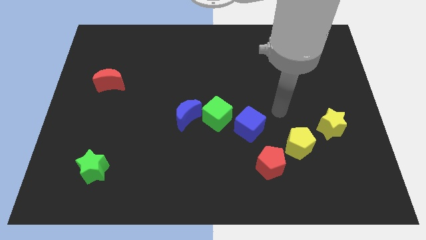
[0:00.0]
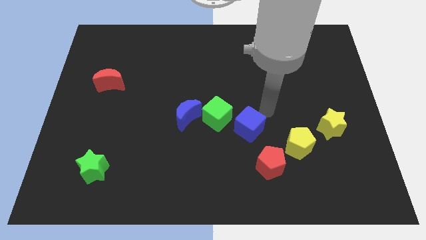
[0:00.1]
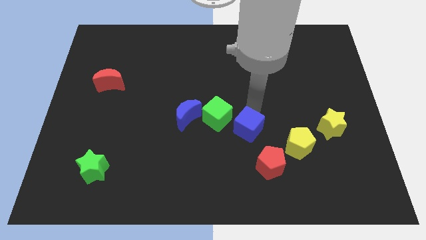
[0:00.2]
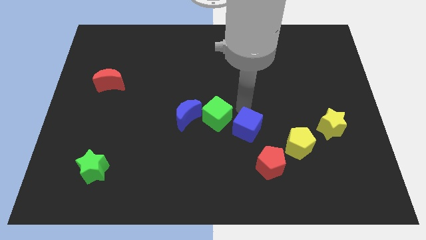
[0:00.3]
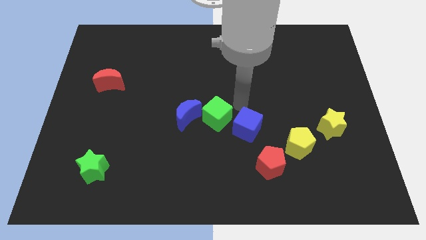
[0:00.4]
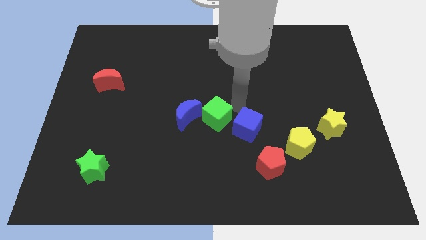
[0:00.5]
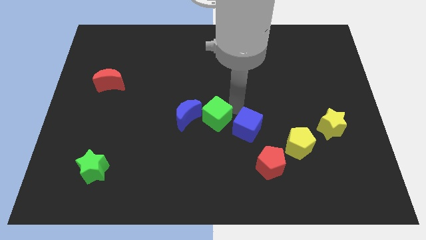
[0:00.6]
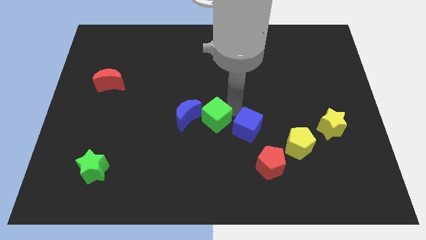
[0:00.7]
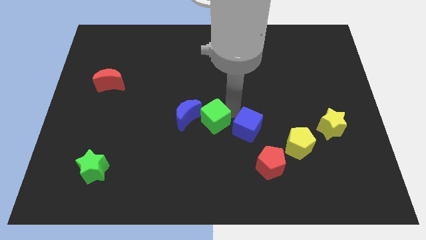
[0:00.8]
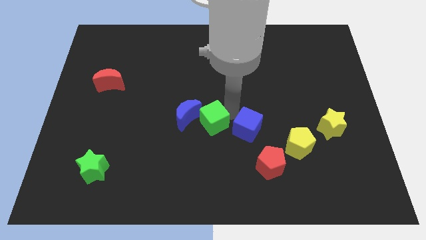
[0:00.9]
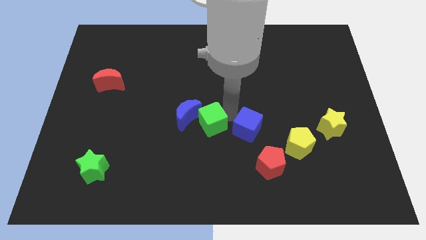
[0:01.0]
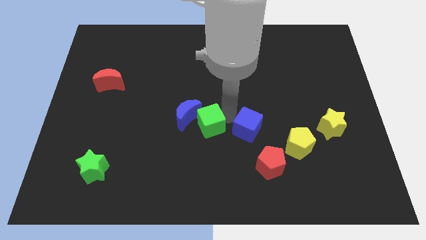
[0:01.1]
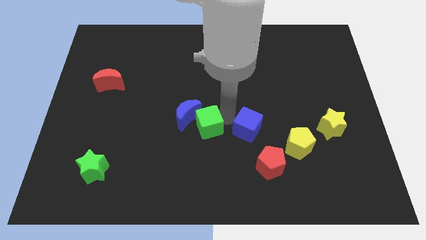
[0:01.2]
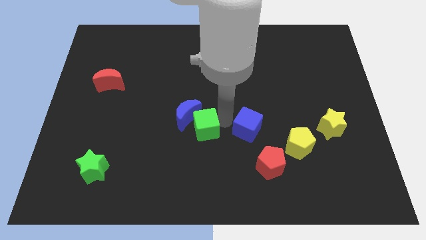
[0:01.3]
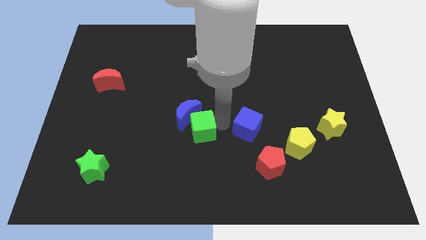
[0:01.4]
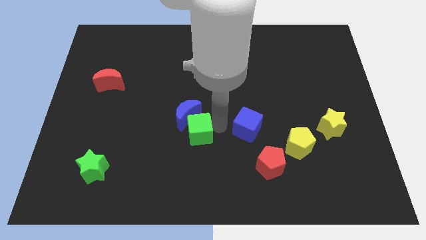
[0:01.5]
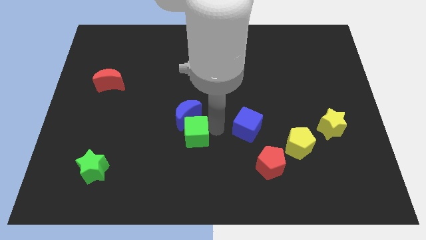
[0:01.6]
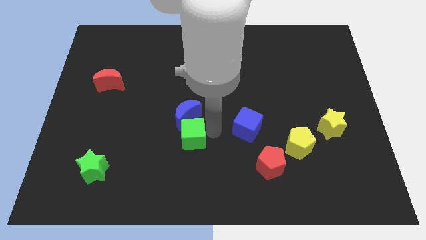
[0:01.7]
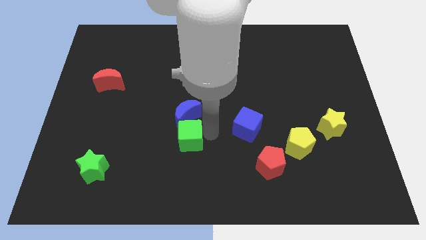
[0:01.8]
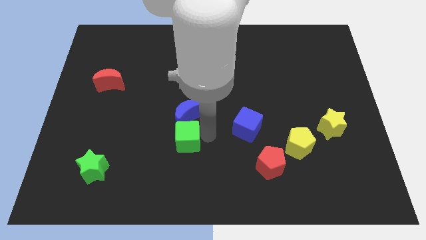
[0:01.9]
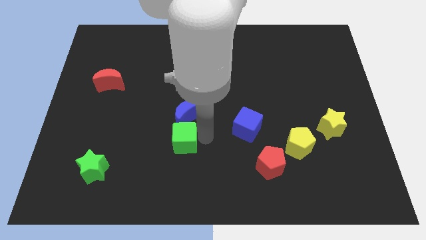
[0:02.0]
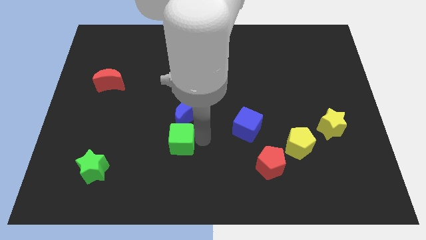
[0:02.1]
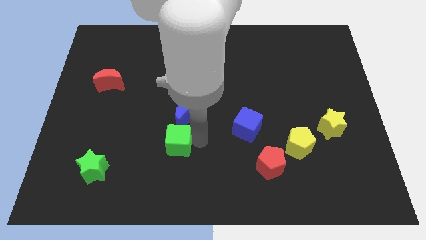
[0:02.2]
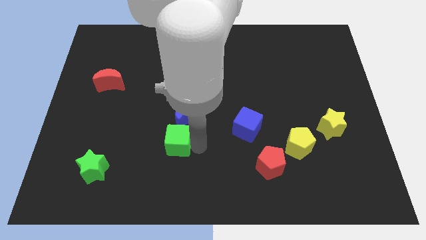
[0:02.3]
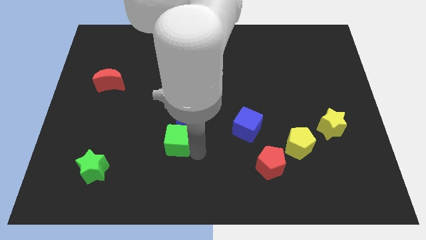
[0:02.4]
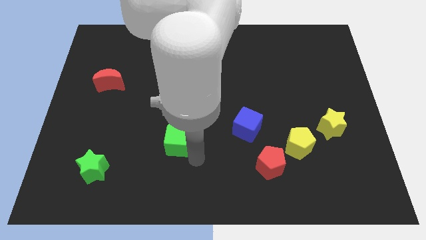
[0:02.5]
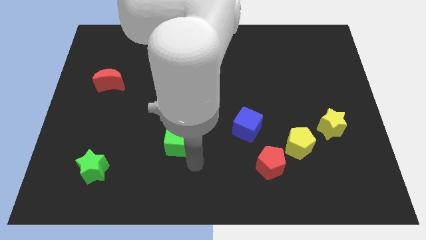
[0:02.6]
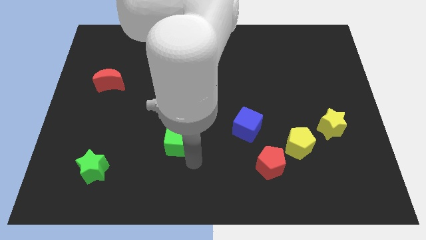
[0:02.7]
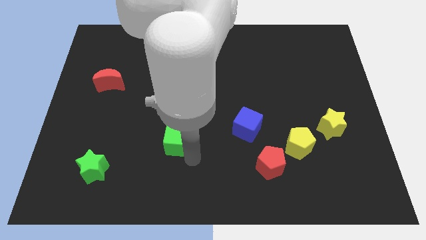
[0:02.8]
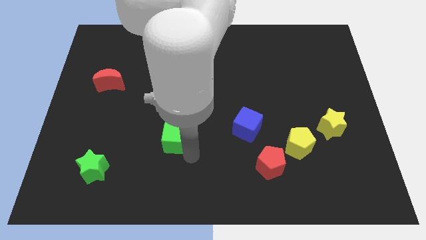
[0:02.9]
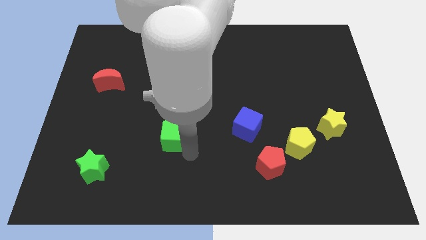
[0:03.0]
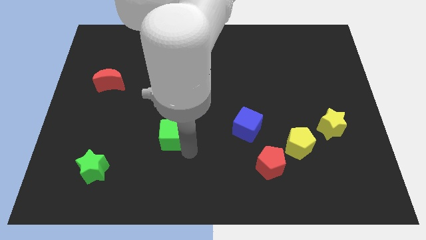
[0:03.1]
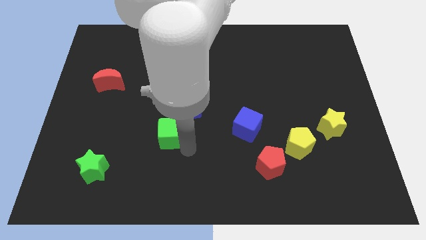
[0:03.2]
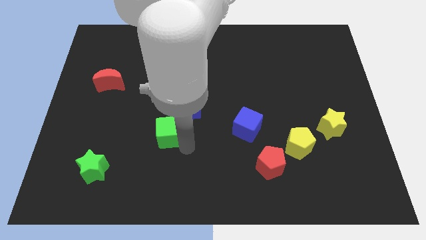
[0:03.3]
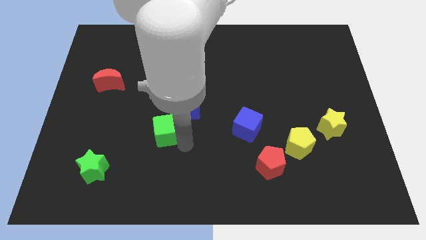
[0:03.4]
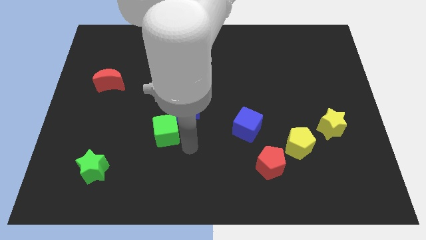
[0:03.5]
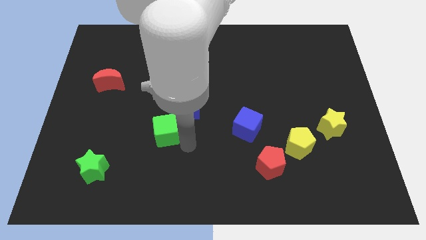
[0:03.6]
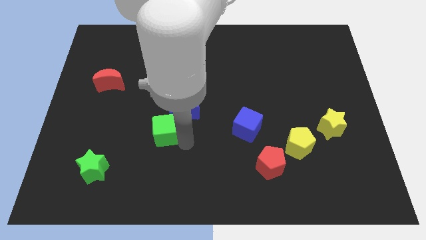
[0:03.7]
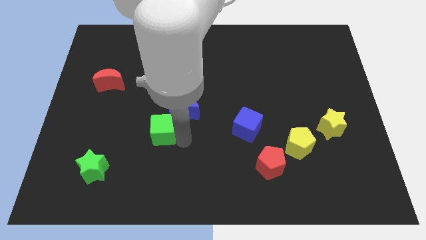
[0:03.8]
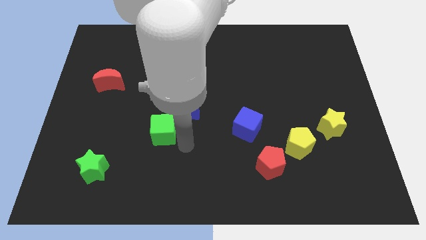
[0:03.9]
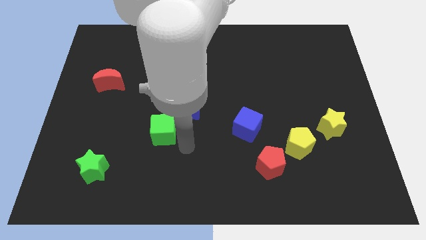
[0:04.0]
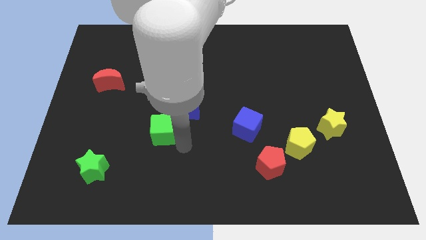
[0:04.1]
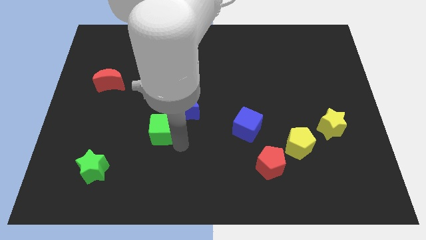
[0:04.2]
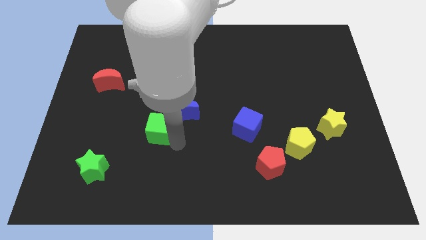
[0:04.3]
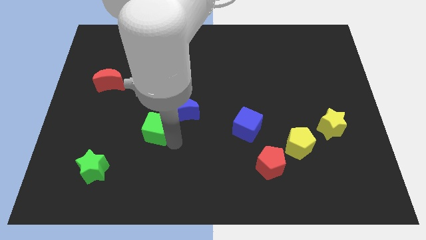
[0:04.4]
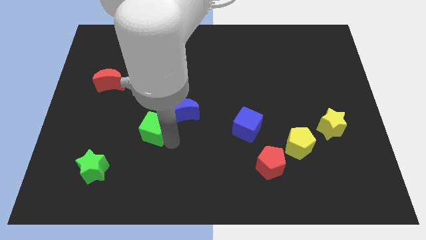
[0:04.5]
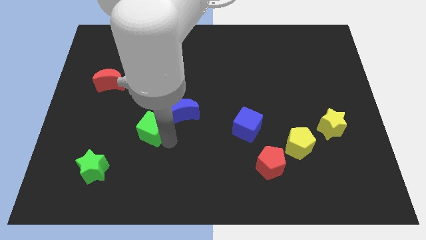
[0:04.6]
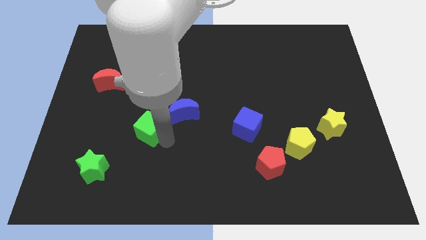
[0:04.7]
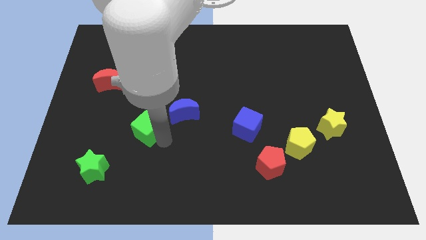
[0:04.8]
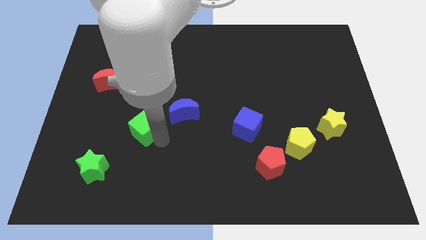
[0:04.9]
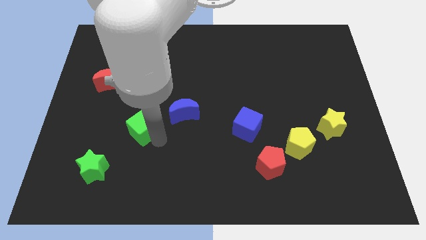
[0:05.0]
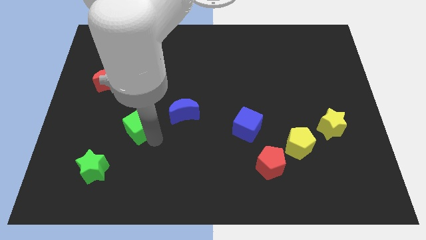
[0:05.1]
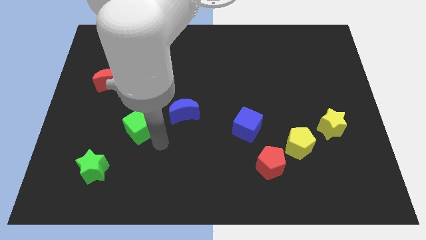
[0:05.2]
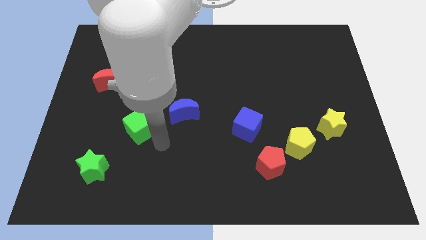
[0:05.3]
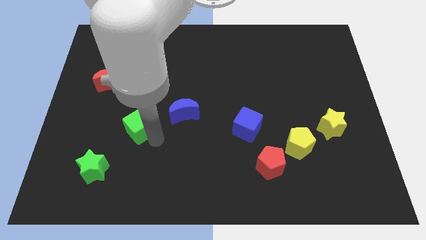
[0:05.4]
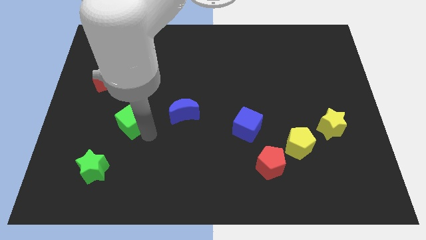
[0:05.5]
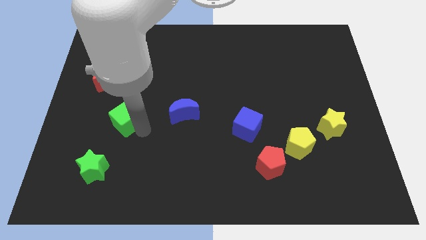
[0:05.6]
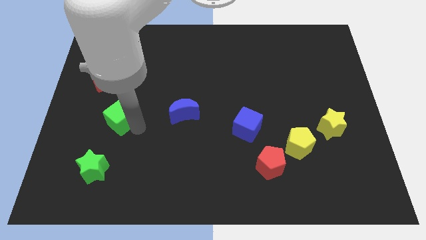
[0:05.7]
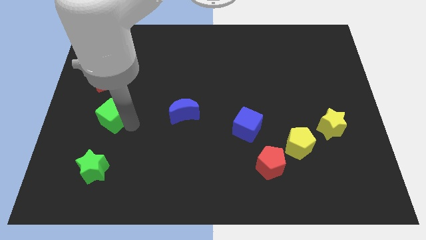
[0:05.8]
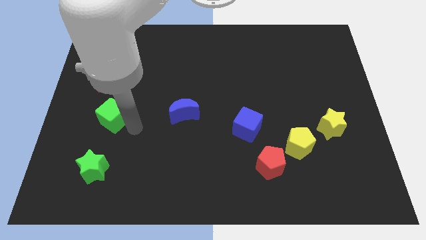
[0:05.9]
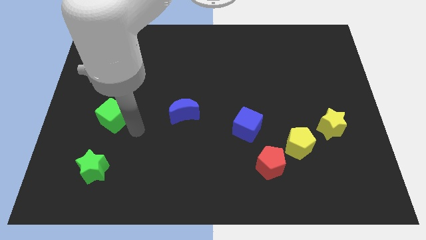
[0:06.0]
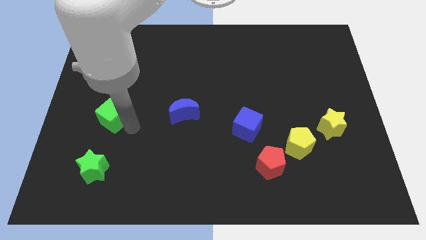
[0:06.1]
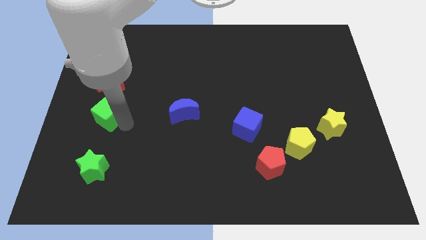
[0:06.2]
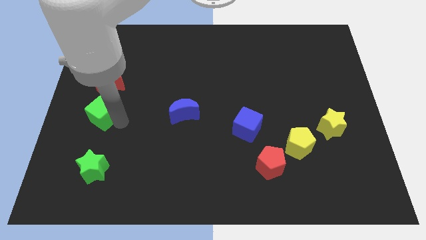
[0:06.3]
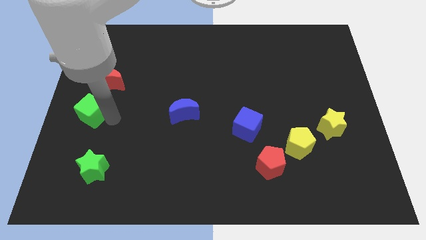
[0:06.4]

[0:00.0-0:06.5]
move the green cube to the center left
